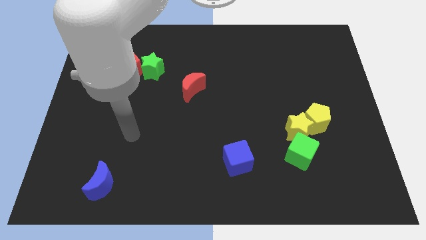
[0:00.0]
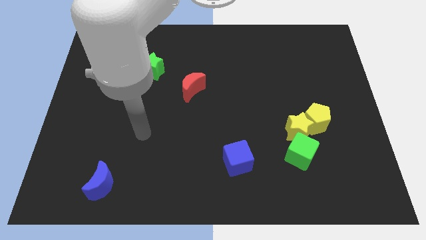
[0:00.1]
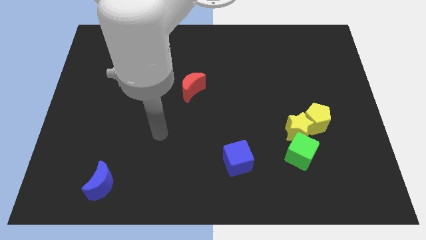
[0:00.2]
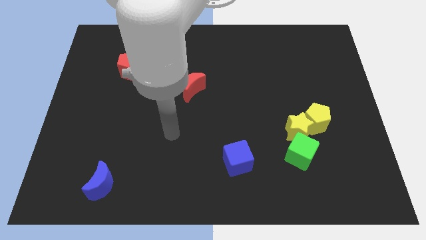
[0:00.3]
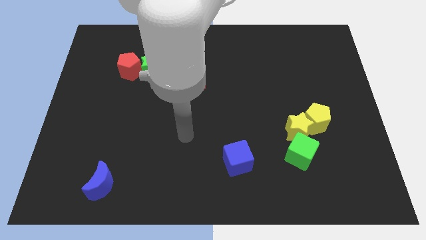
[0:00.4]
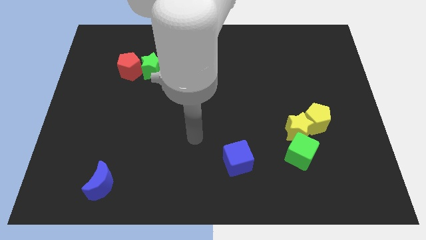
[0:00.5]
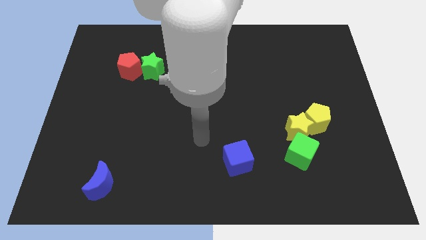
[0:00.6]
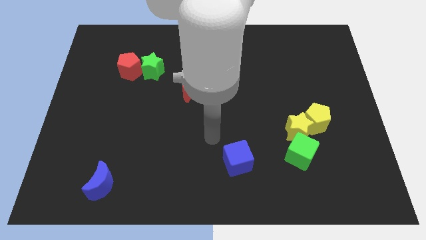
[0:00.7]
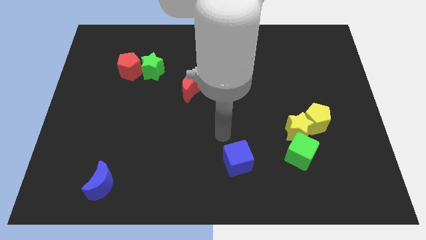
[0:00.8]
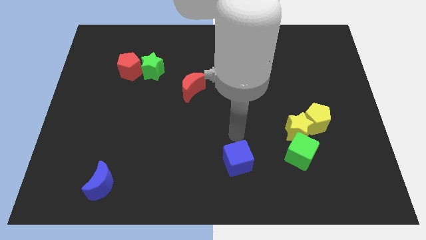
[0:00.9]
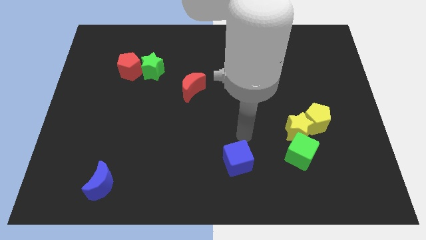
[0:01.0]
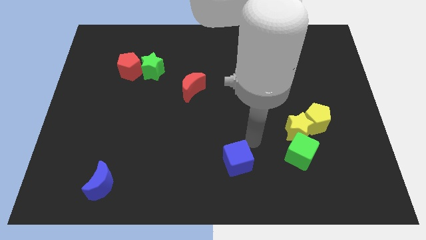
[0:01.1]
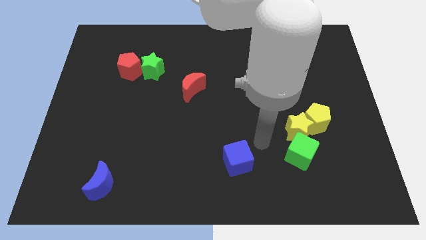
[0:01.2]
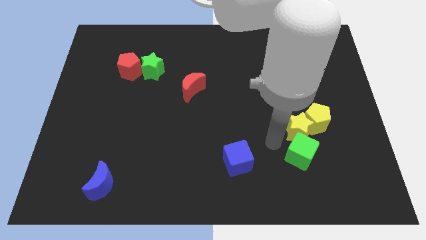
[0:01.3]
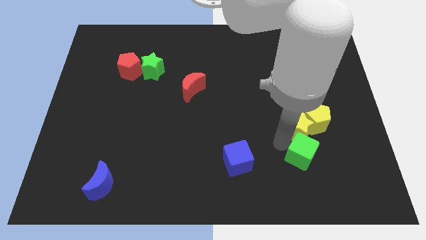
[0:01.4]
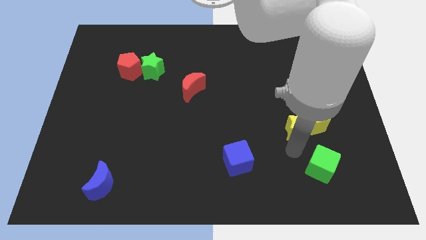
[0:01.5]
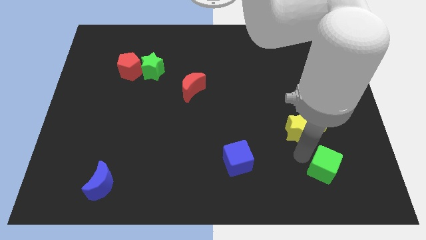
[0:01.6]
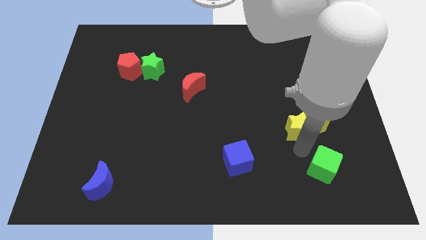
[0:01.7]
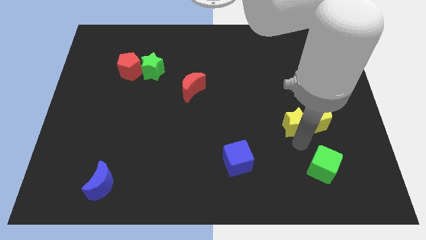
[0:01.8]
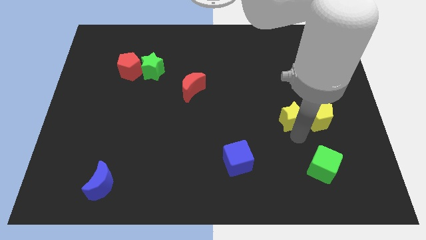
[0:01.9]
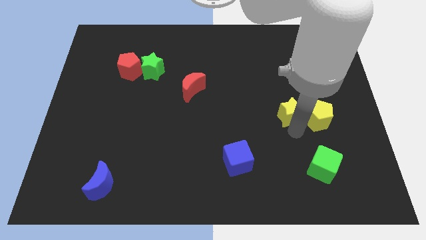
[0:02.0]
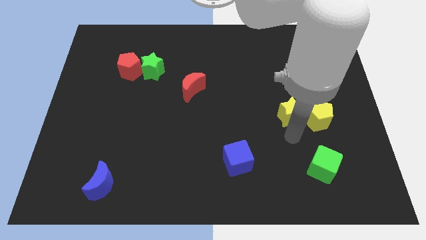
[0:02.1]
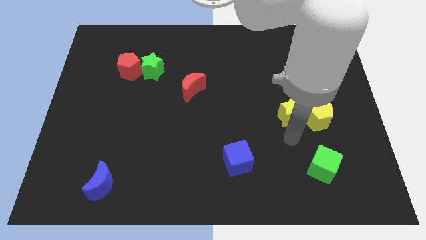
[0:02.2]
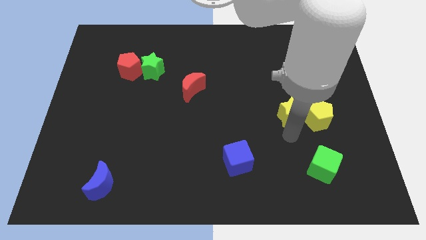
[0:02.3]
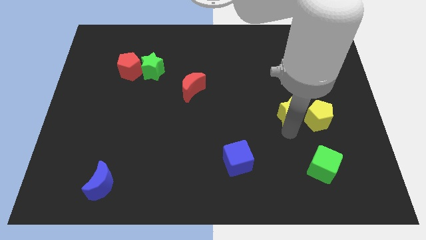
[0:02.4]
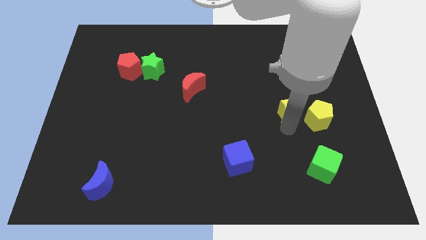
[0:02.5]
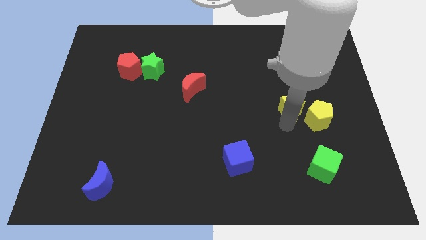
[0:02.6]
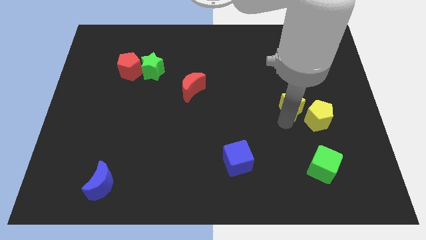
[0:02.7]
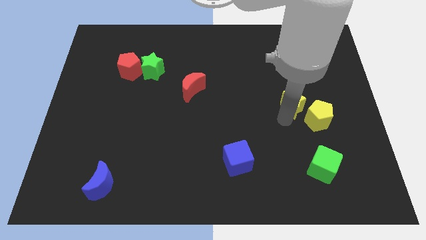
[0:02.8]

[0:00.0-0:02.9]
move the yellow star up a little bit

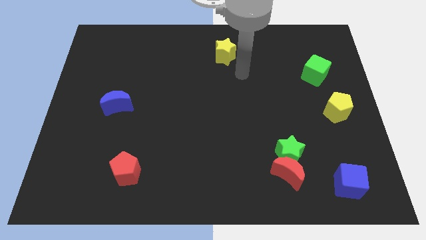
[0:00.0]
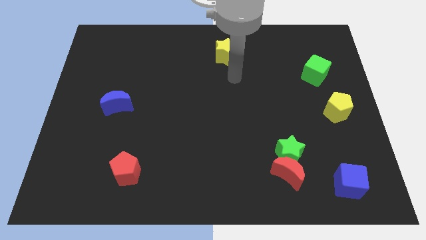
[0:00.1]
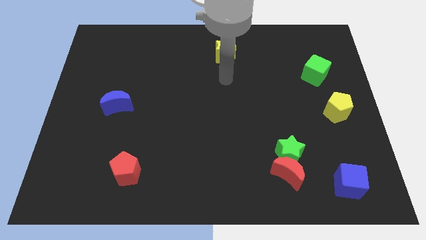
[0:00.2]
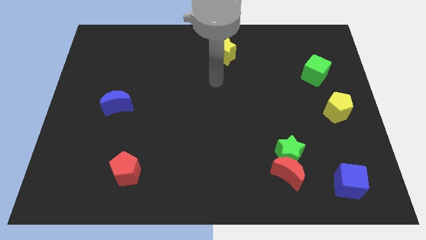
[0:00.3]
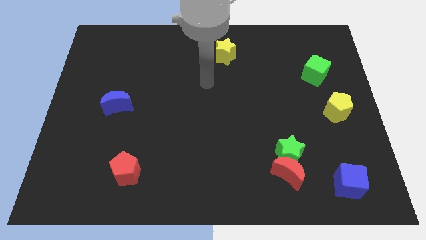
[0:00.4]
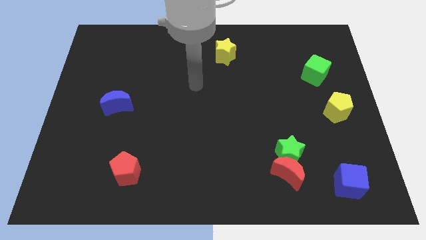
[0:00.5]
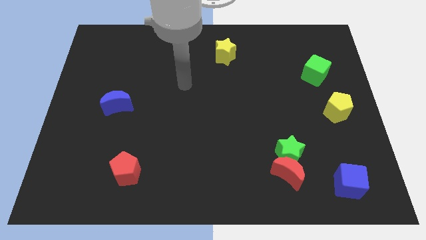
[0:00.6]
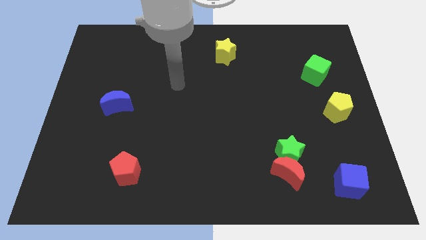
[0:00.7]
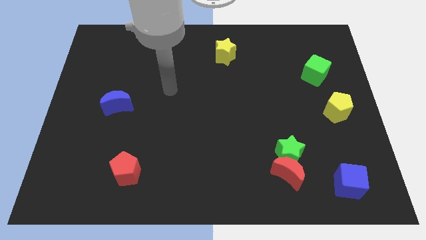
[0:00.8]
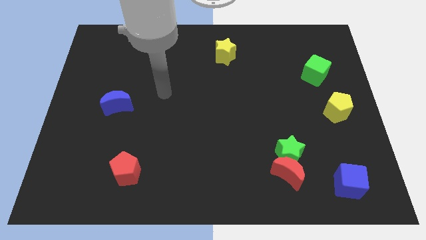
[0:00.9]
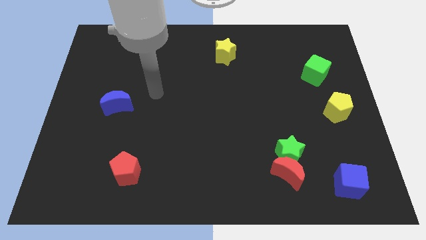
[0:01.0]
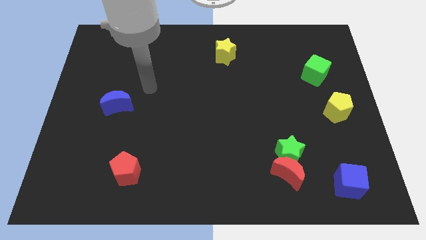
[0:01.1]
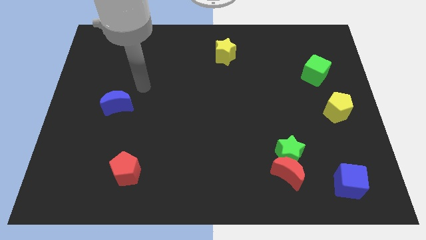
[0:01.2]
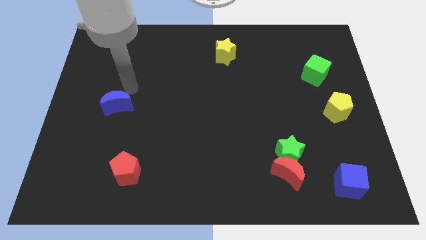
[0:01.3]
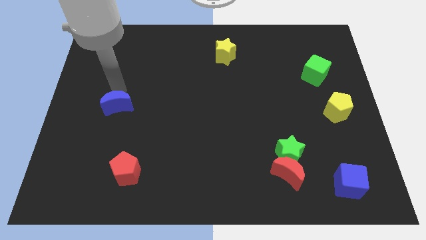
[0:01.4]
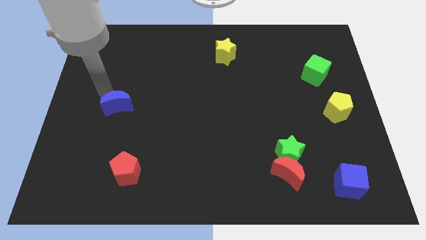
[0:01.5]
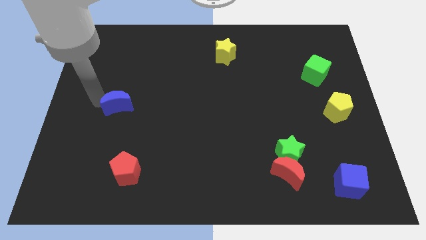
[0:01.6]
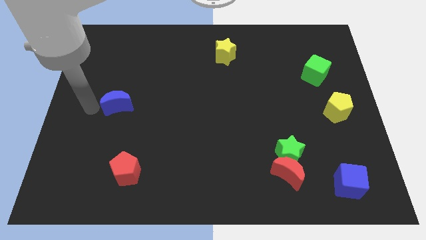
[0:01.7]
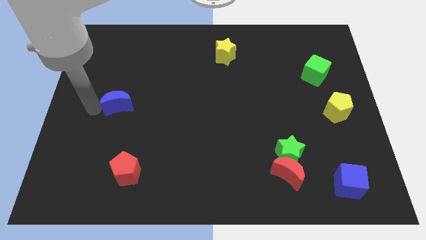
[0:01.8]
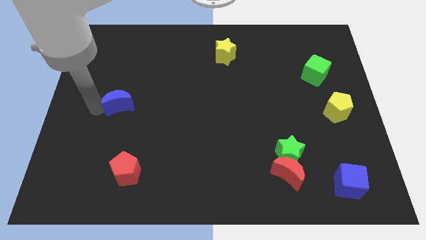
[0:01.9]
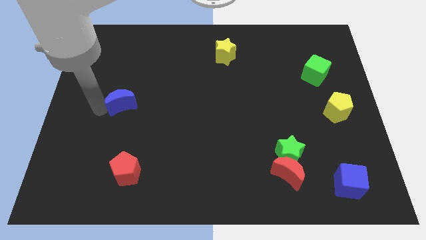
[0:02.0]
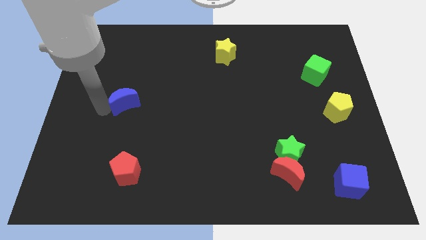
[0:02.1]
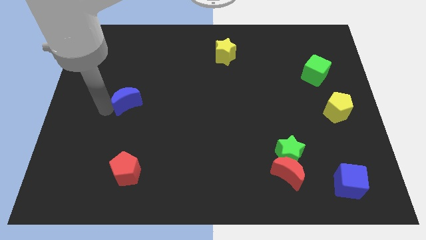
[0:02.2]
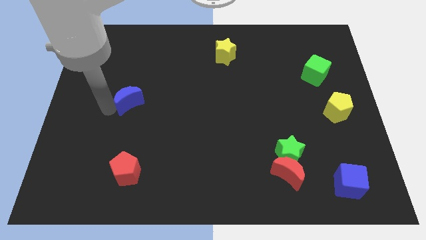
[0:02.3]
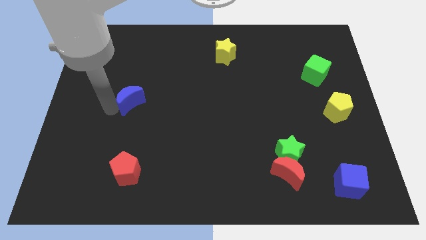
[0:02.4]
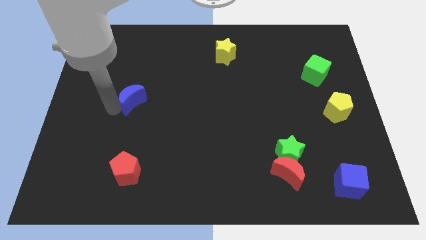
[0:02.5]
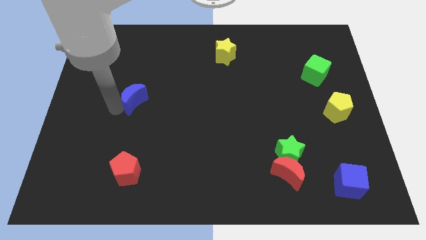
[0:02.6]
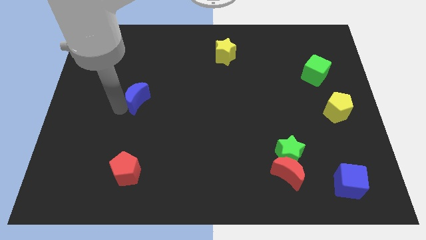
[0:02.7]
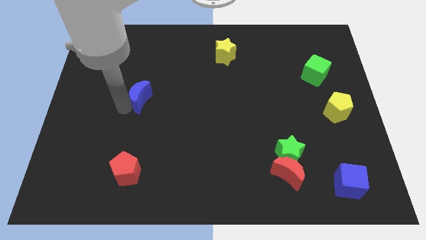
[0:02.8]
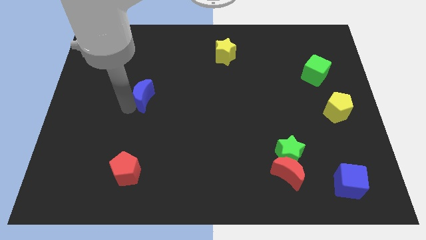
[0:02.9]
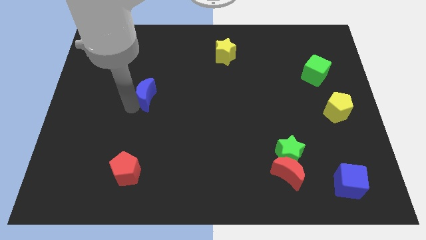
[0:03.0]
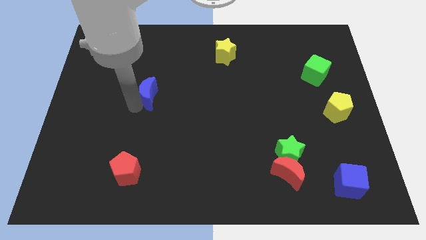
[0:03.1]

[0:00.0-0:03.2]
slightly push the blue moon to the right

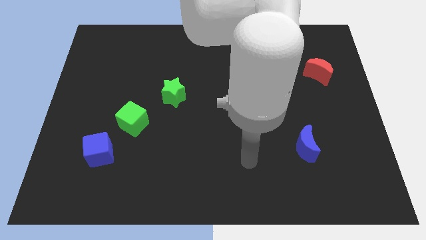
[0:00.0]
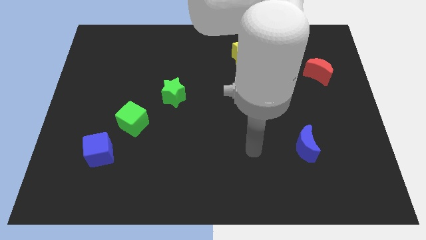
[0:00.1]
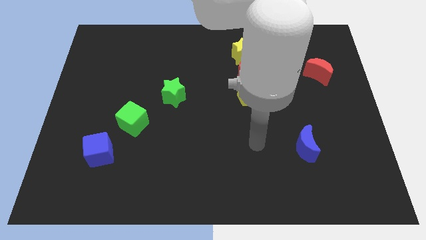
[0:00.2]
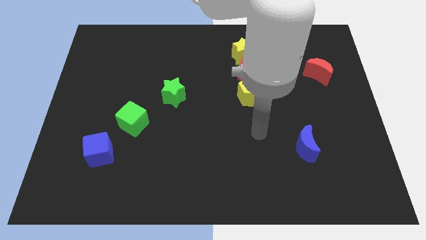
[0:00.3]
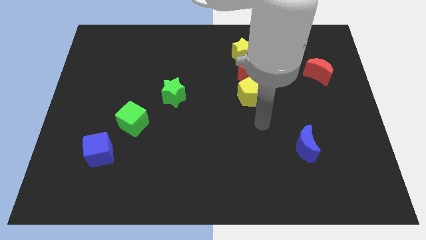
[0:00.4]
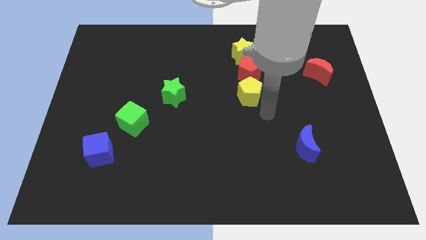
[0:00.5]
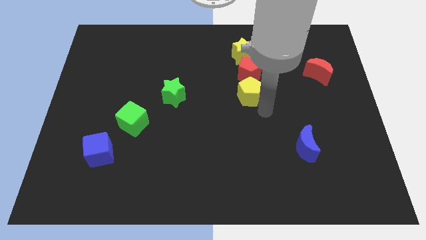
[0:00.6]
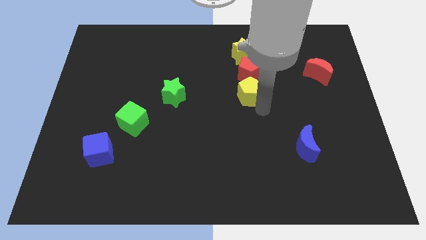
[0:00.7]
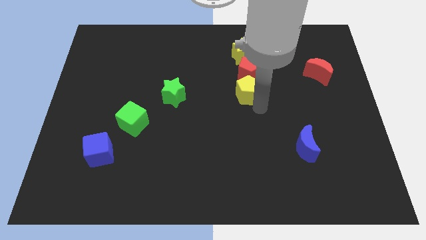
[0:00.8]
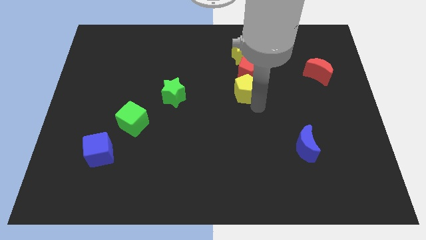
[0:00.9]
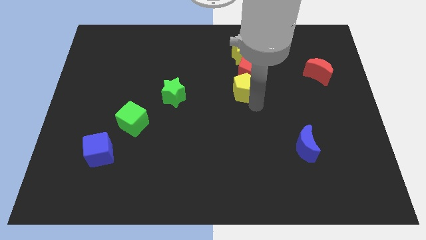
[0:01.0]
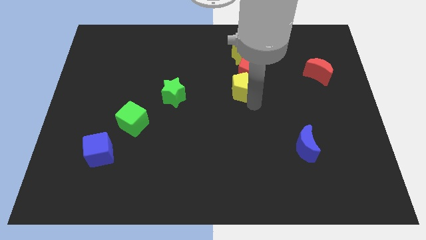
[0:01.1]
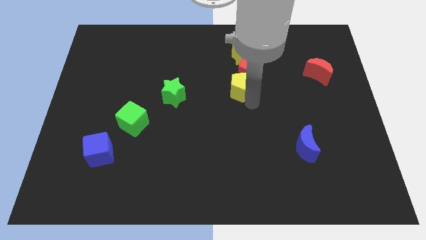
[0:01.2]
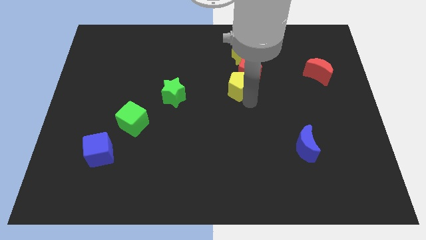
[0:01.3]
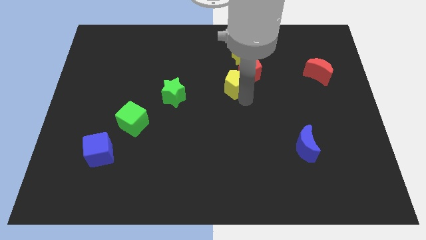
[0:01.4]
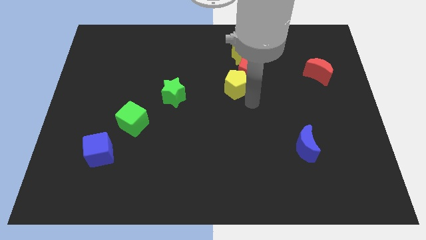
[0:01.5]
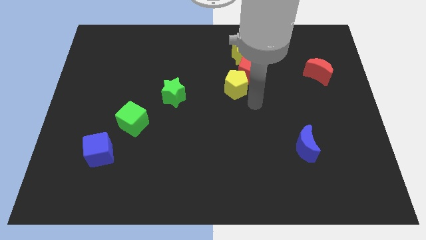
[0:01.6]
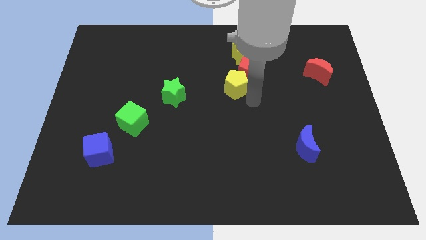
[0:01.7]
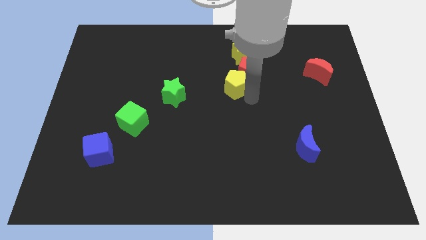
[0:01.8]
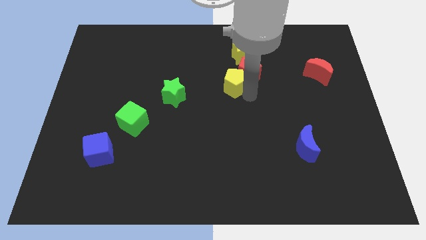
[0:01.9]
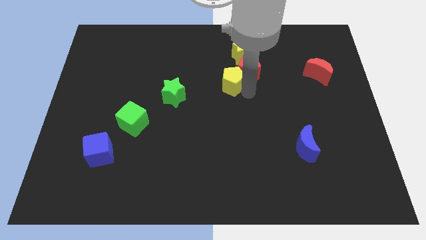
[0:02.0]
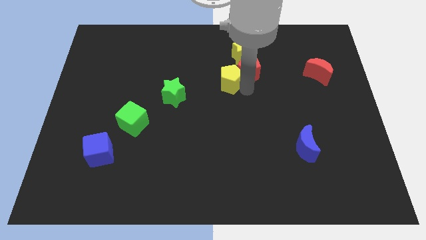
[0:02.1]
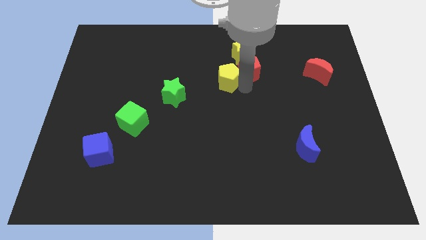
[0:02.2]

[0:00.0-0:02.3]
push the yellow pentagon upwards and to the left somewhat

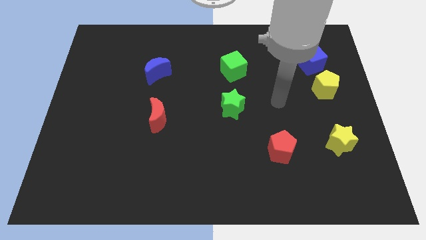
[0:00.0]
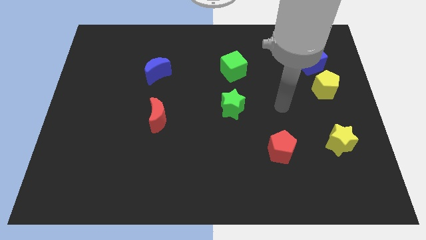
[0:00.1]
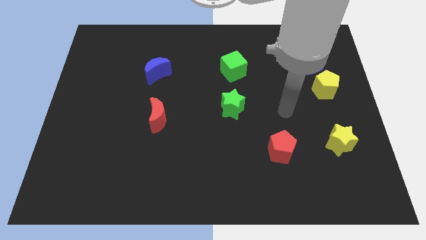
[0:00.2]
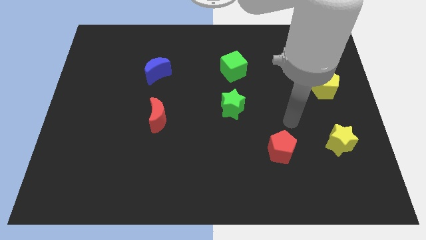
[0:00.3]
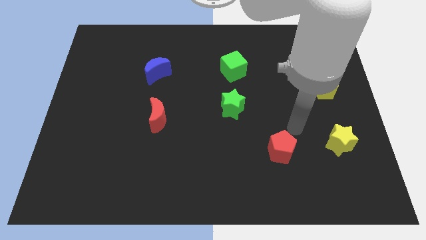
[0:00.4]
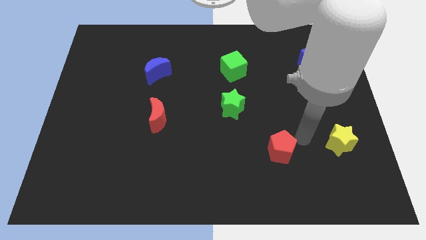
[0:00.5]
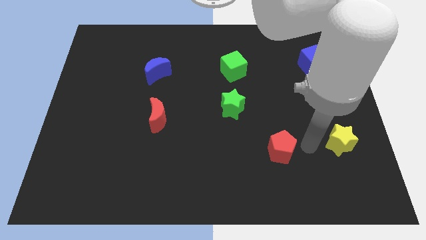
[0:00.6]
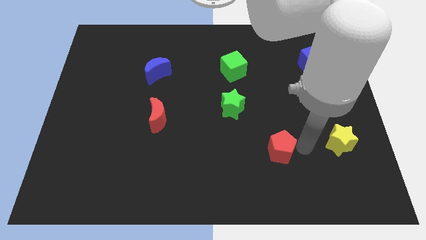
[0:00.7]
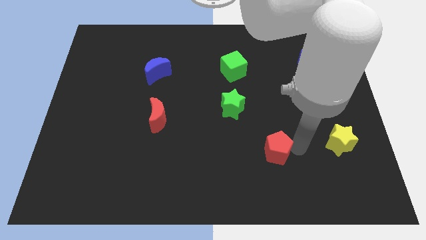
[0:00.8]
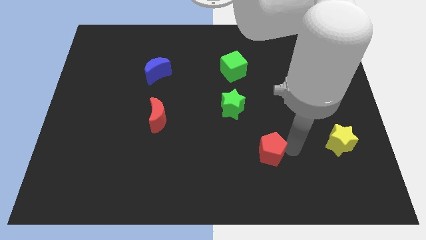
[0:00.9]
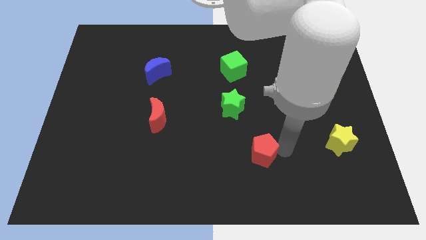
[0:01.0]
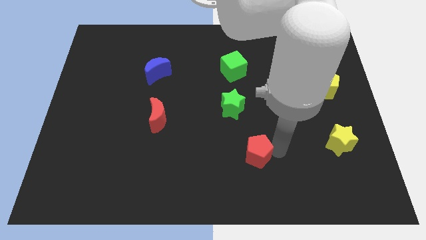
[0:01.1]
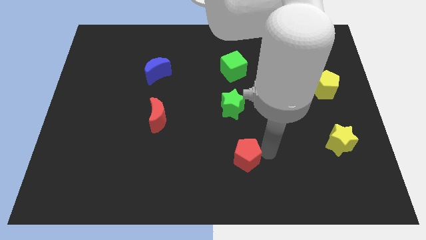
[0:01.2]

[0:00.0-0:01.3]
slide the red pentagon a little bit left
